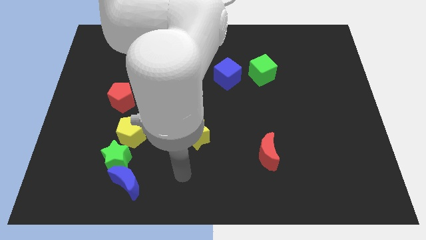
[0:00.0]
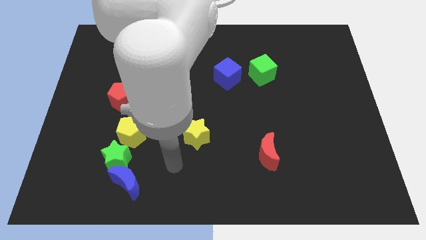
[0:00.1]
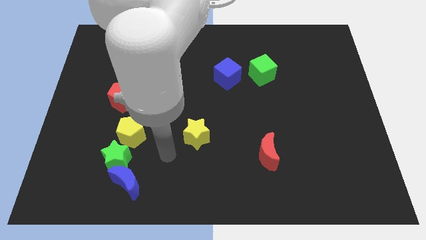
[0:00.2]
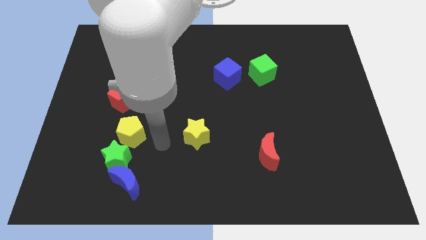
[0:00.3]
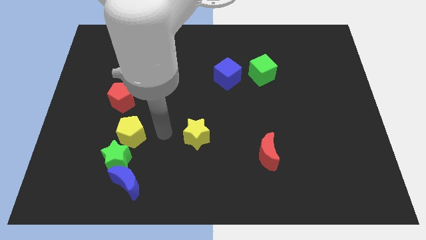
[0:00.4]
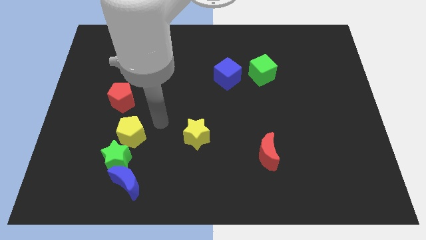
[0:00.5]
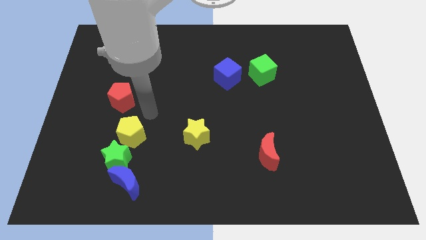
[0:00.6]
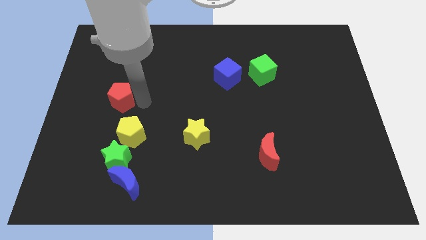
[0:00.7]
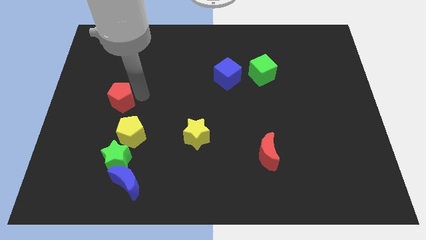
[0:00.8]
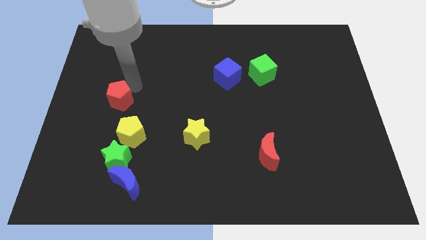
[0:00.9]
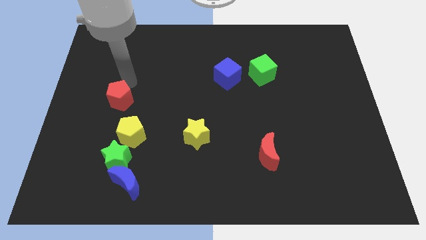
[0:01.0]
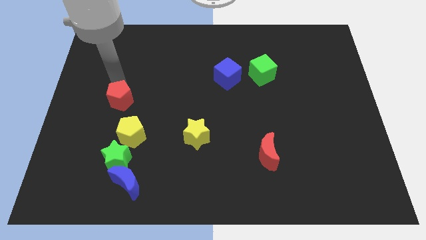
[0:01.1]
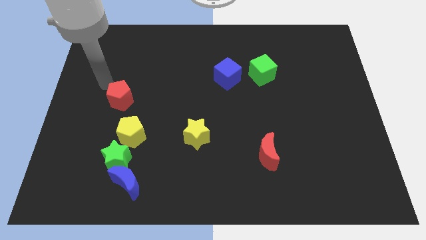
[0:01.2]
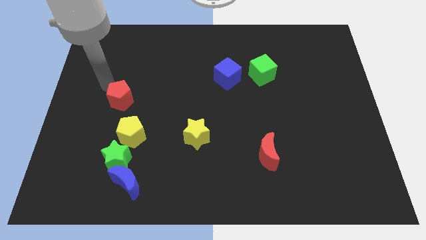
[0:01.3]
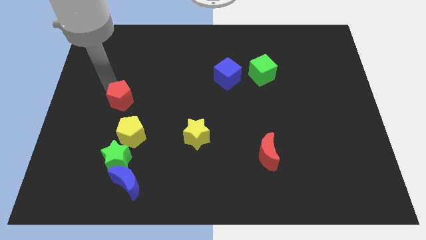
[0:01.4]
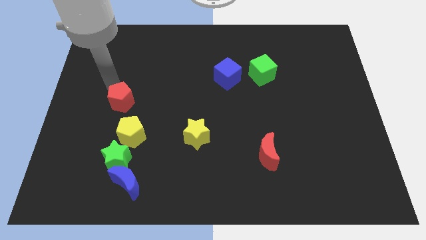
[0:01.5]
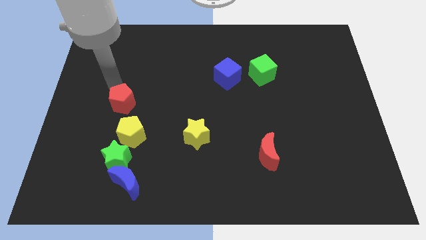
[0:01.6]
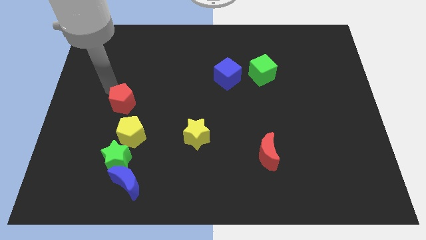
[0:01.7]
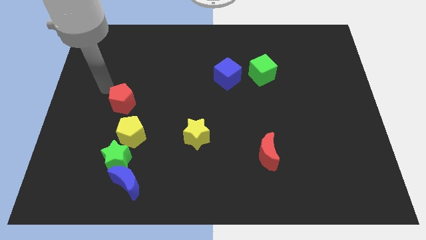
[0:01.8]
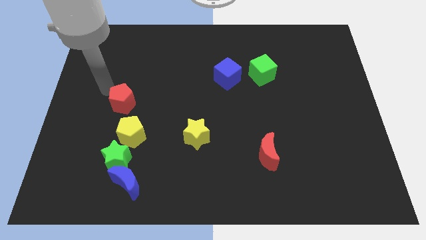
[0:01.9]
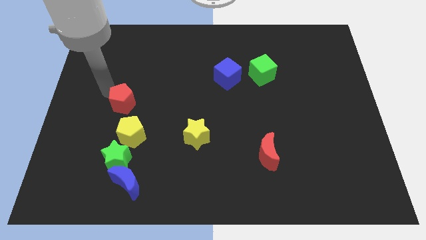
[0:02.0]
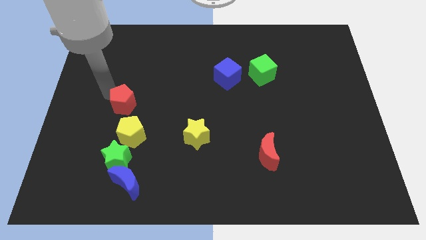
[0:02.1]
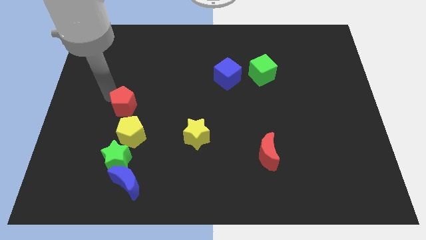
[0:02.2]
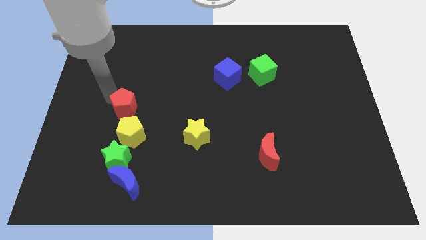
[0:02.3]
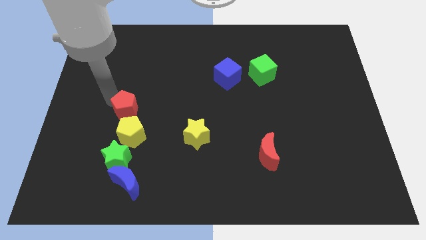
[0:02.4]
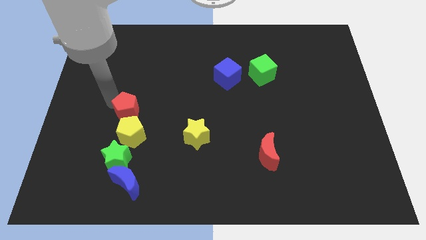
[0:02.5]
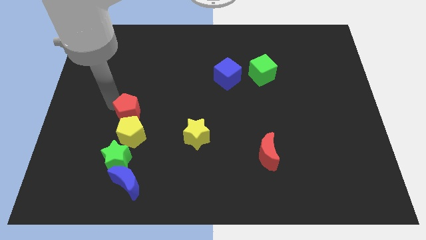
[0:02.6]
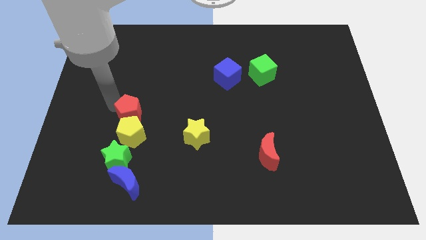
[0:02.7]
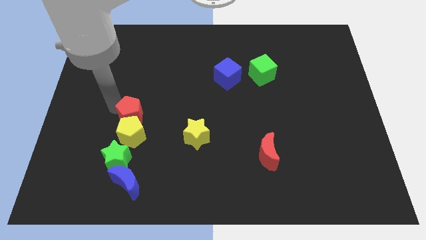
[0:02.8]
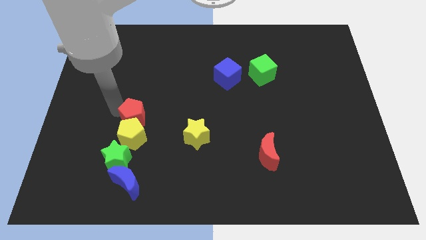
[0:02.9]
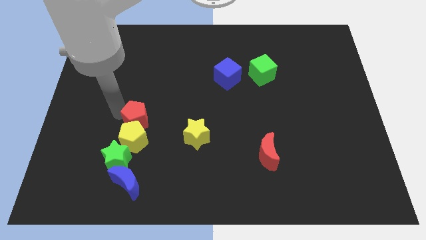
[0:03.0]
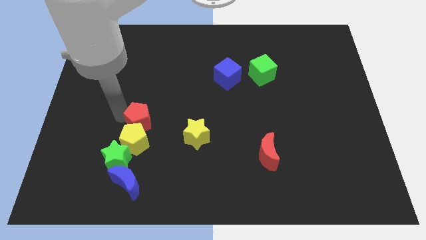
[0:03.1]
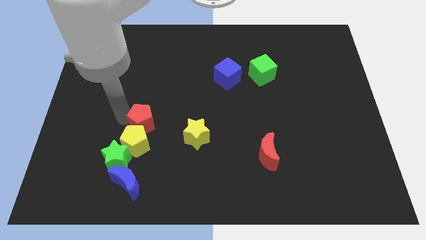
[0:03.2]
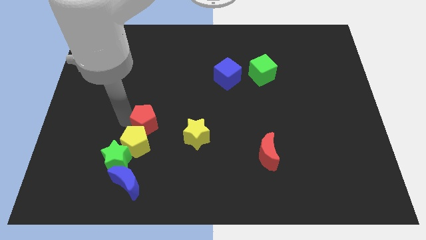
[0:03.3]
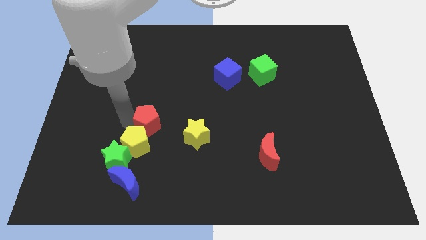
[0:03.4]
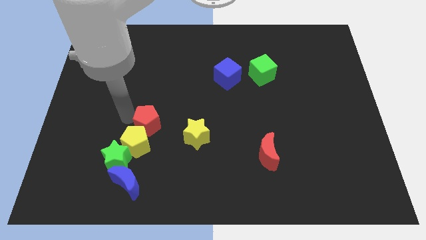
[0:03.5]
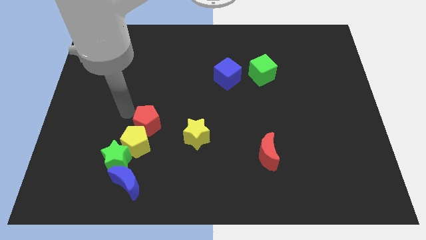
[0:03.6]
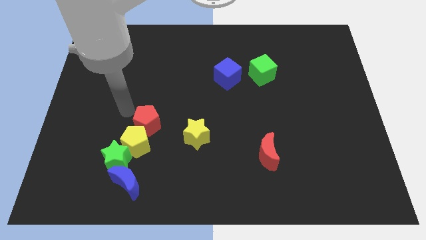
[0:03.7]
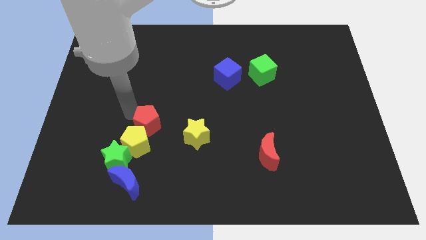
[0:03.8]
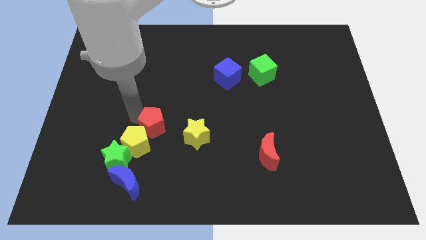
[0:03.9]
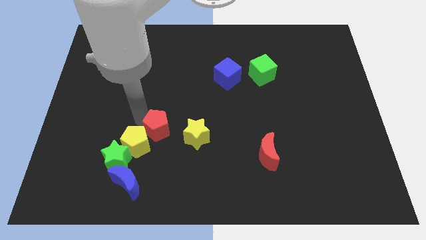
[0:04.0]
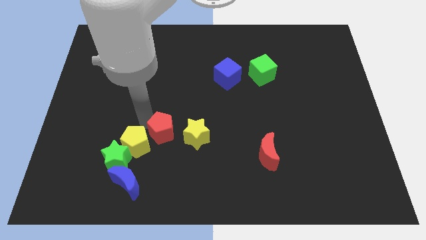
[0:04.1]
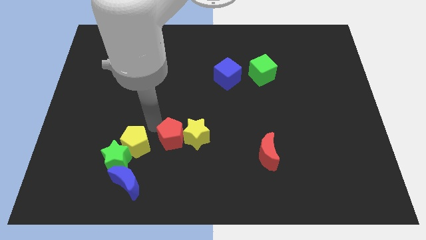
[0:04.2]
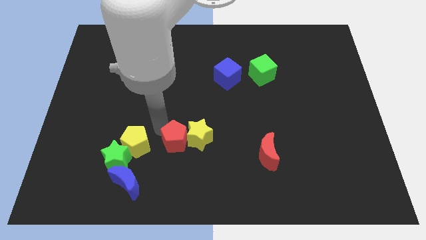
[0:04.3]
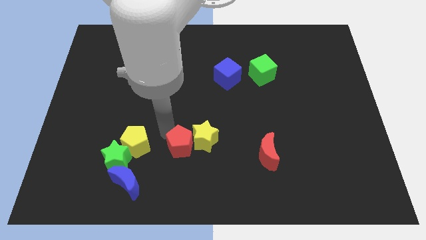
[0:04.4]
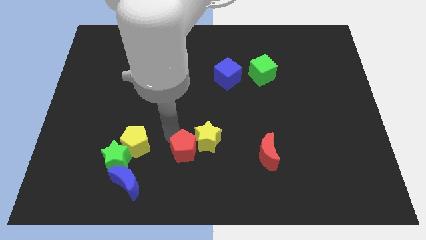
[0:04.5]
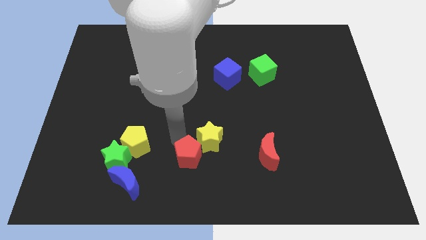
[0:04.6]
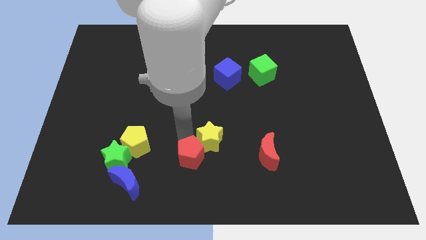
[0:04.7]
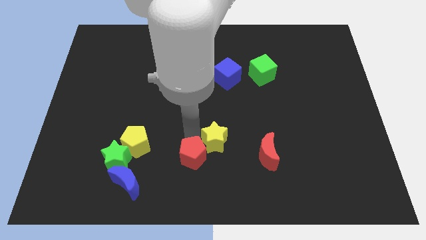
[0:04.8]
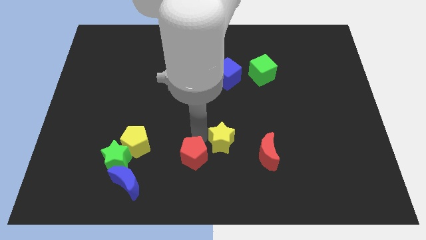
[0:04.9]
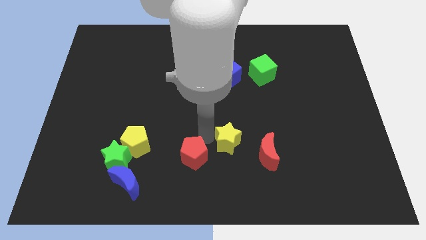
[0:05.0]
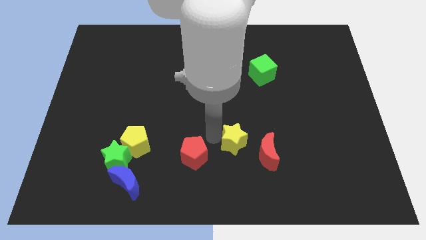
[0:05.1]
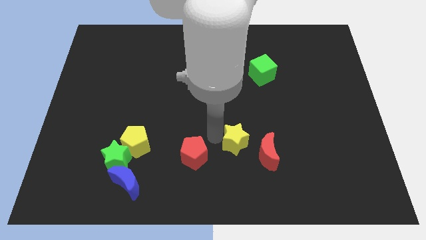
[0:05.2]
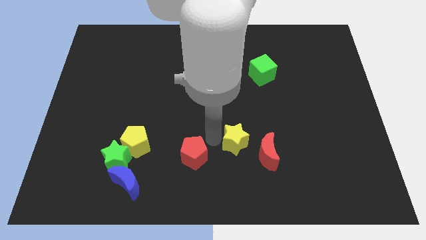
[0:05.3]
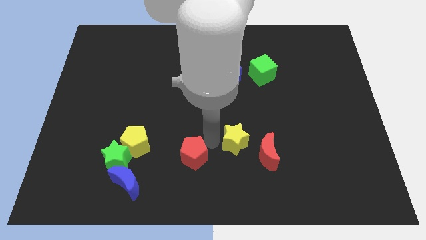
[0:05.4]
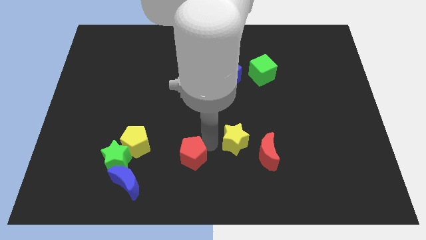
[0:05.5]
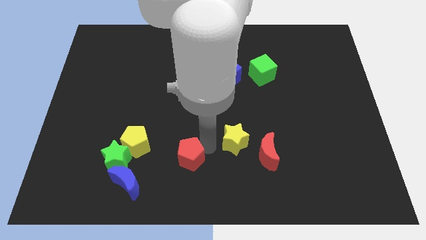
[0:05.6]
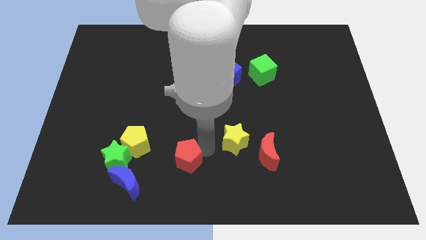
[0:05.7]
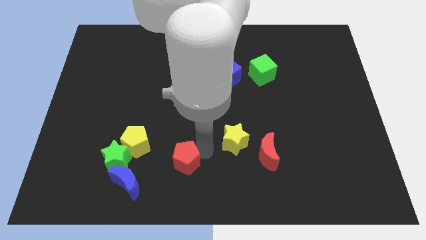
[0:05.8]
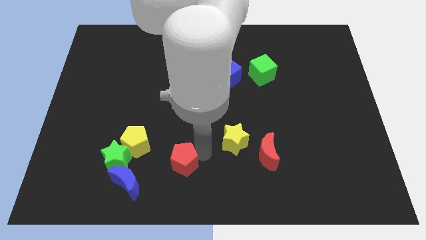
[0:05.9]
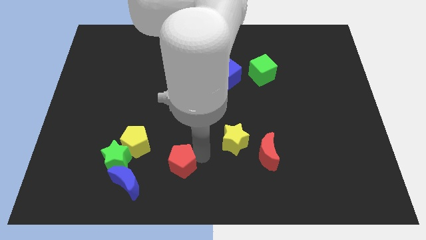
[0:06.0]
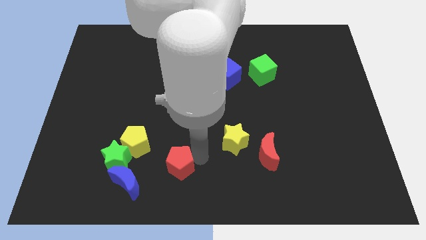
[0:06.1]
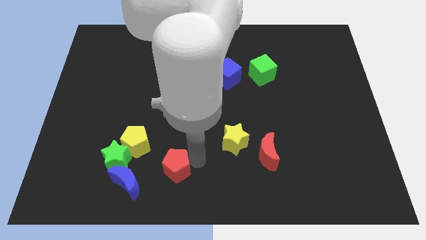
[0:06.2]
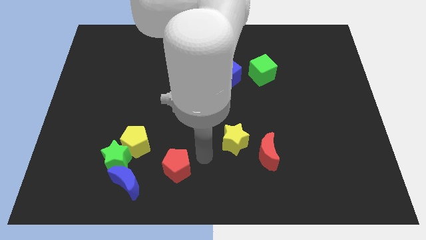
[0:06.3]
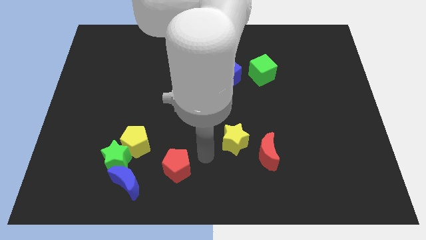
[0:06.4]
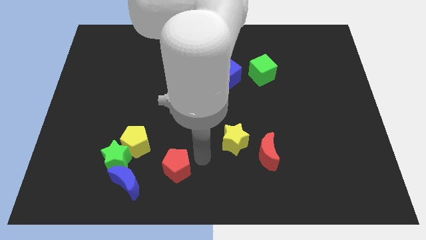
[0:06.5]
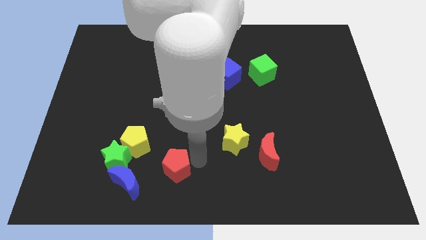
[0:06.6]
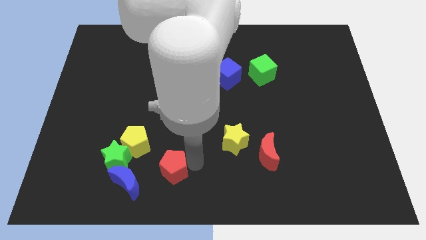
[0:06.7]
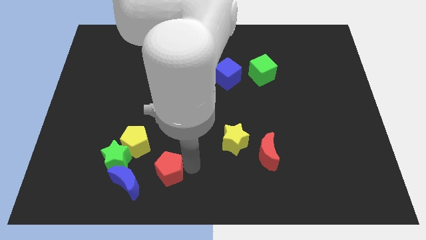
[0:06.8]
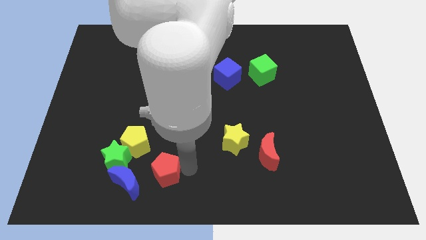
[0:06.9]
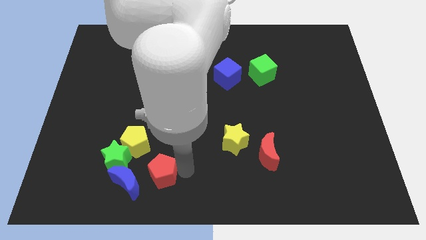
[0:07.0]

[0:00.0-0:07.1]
slide the red pentagon to the bottom right side of the green star
